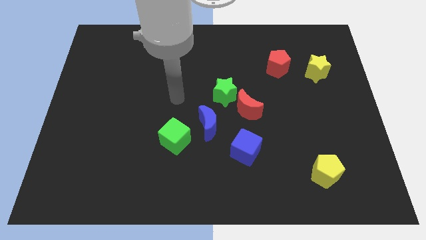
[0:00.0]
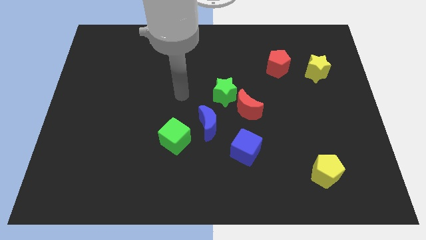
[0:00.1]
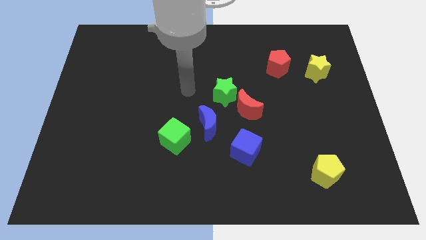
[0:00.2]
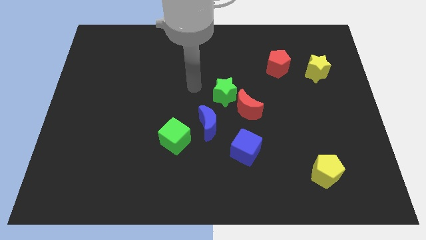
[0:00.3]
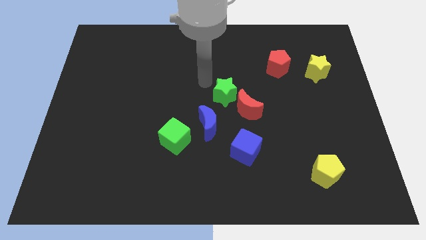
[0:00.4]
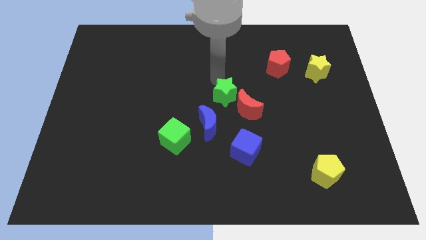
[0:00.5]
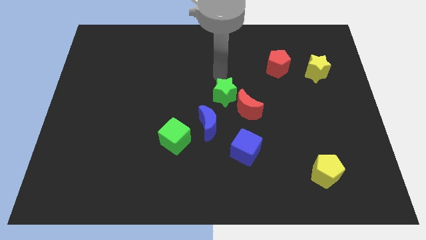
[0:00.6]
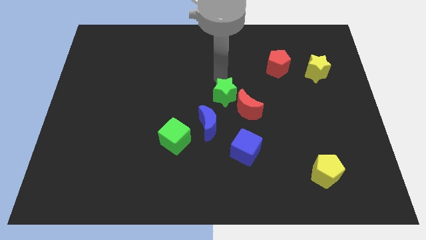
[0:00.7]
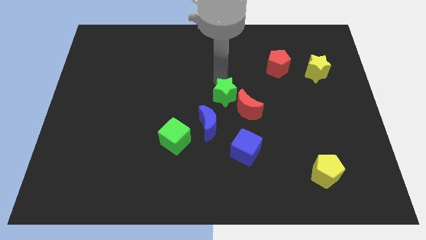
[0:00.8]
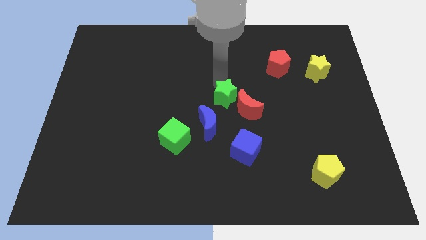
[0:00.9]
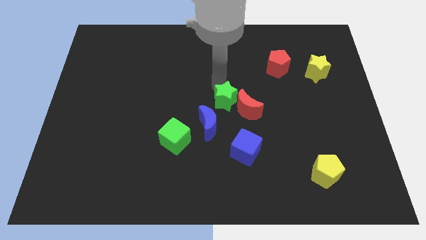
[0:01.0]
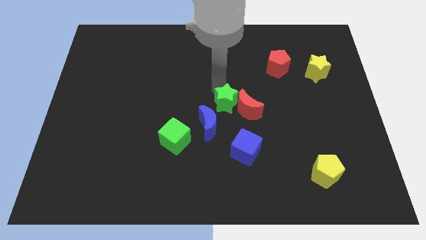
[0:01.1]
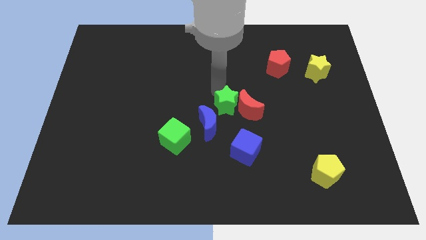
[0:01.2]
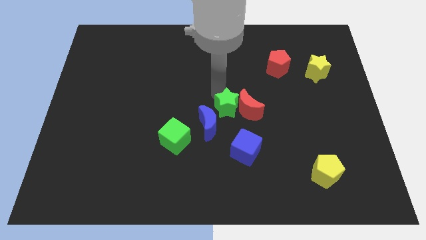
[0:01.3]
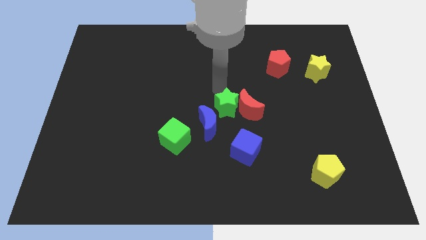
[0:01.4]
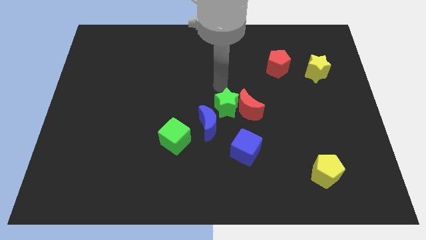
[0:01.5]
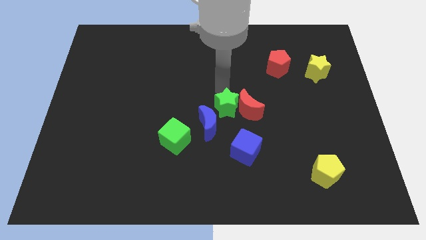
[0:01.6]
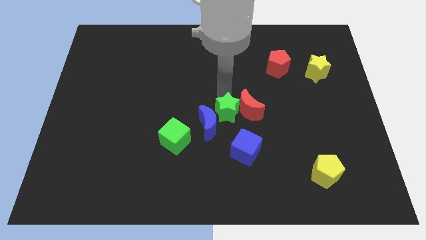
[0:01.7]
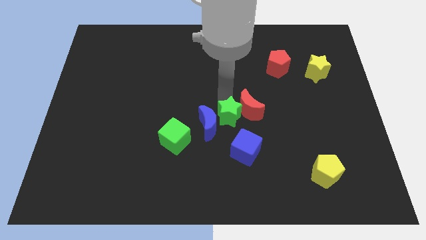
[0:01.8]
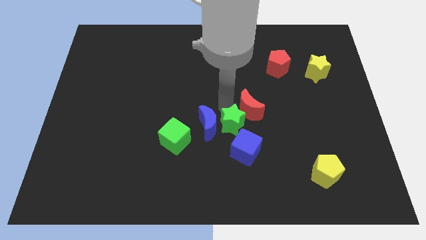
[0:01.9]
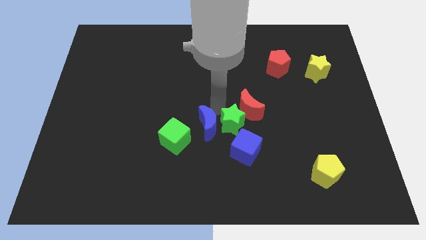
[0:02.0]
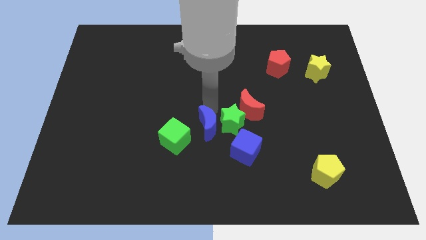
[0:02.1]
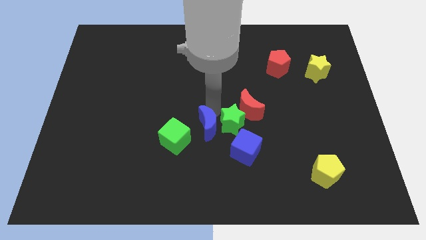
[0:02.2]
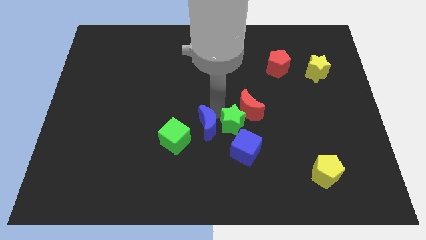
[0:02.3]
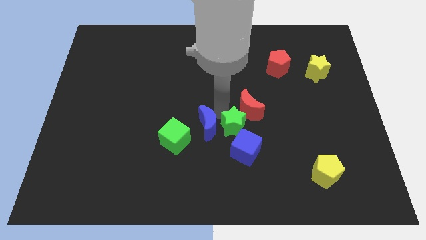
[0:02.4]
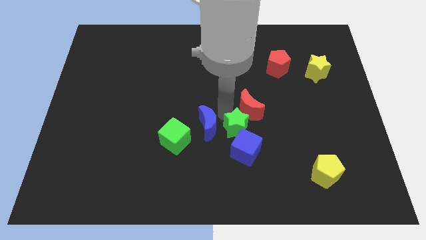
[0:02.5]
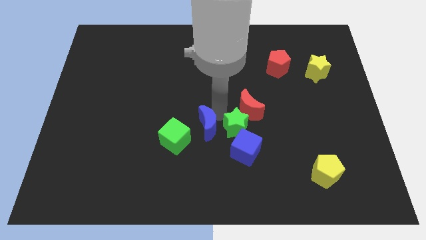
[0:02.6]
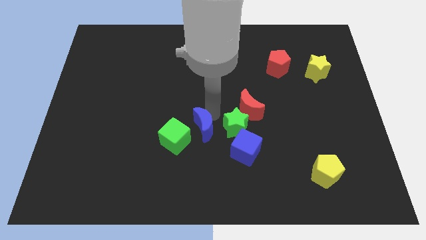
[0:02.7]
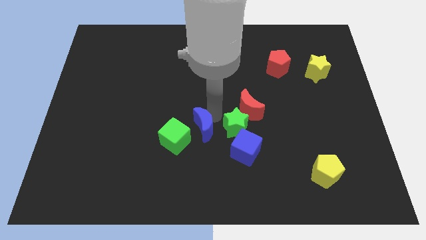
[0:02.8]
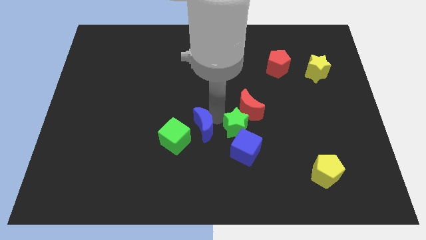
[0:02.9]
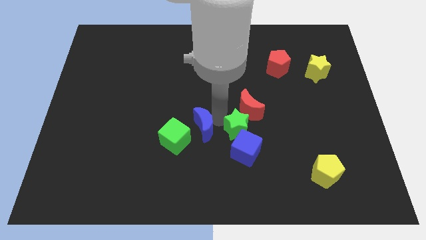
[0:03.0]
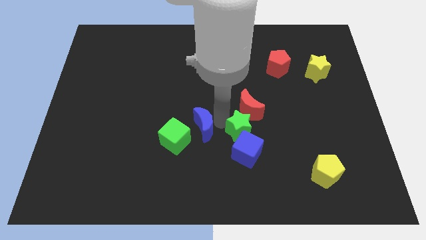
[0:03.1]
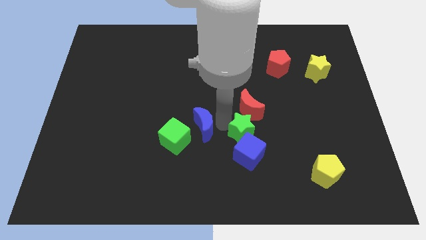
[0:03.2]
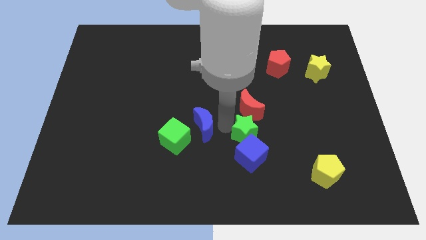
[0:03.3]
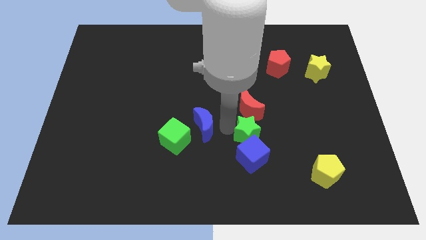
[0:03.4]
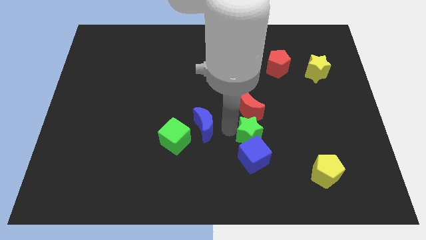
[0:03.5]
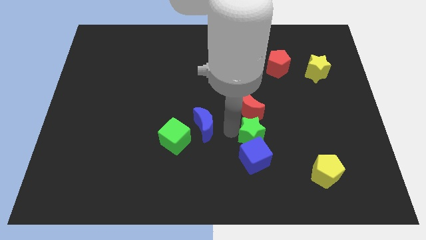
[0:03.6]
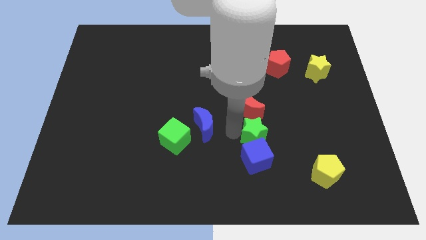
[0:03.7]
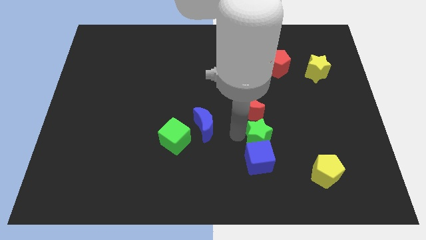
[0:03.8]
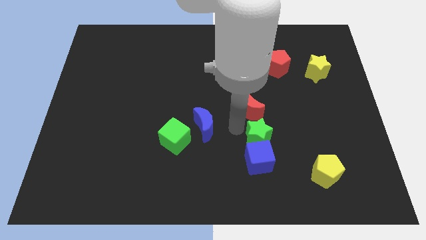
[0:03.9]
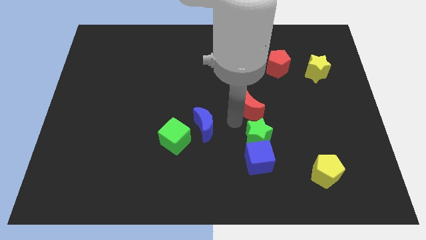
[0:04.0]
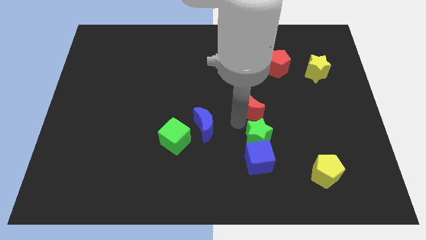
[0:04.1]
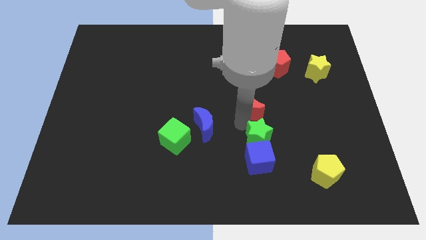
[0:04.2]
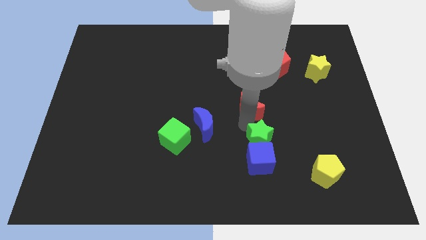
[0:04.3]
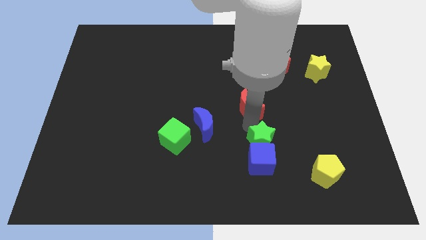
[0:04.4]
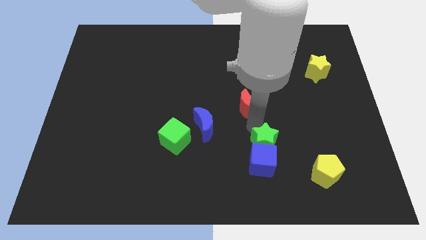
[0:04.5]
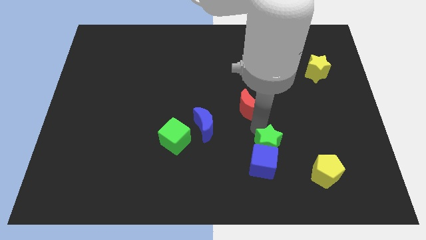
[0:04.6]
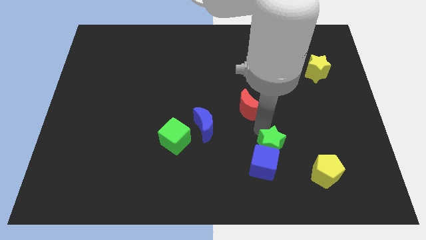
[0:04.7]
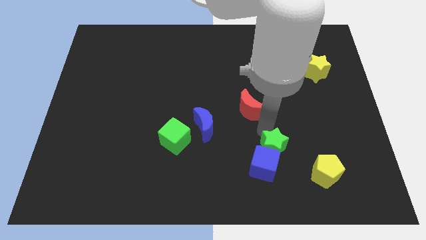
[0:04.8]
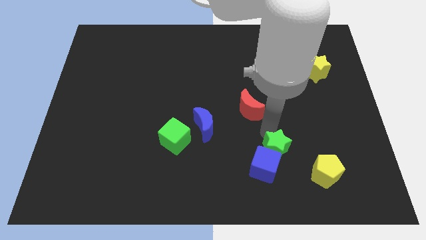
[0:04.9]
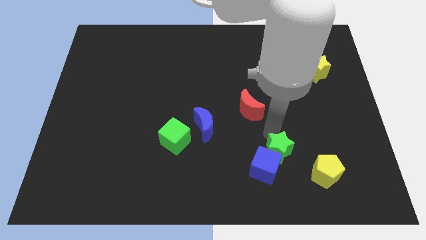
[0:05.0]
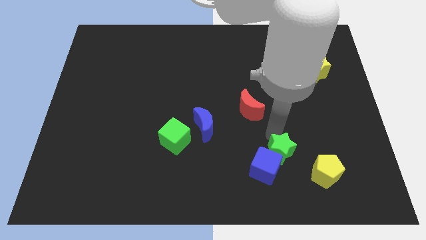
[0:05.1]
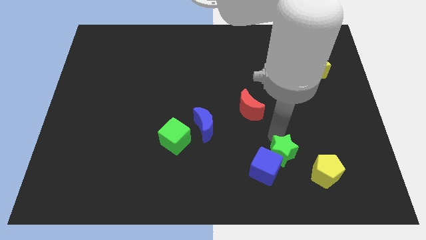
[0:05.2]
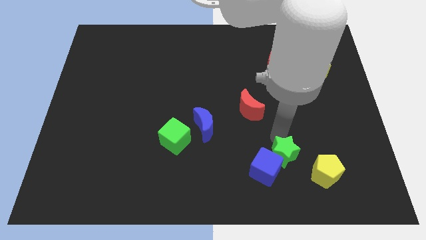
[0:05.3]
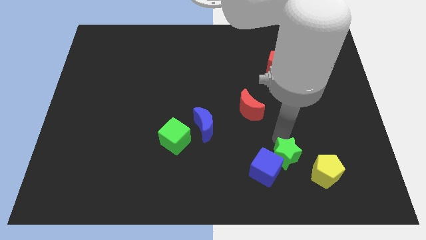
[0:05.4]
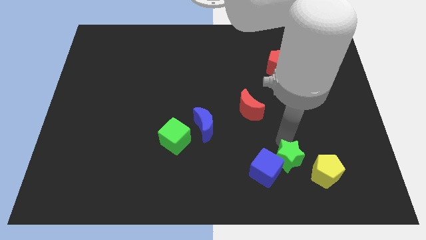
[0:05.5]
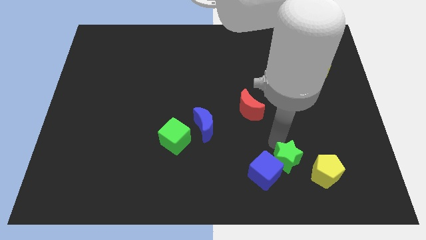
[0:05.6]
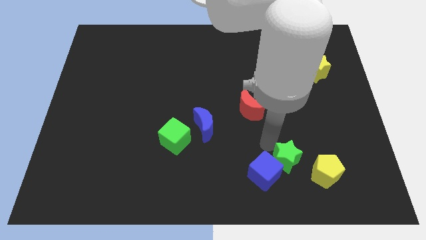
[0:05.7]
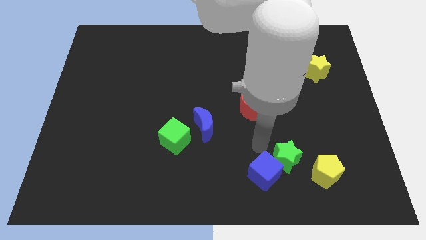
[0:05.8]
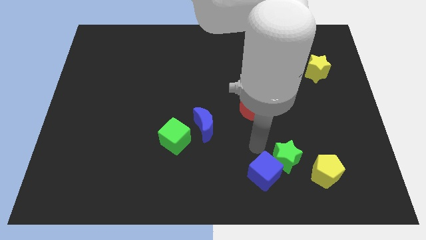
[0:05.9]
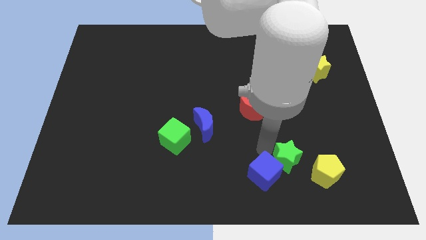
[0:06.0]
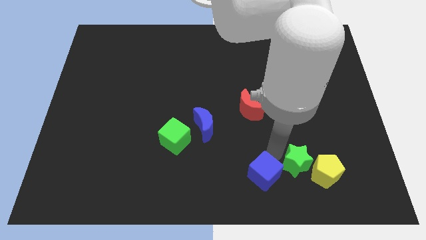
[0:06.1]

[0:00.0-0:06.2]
push the green star next to the yellow pentagon
